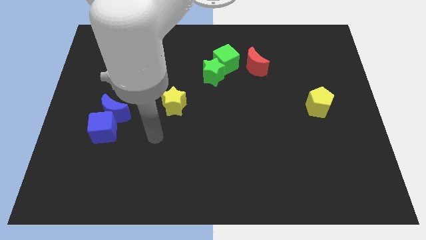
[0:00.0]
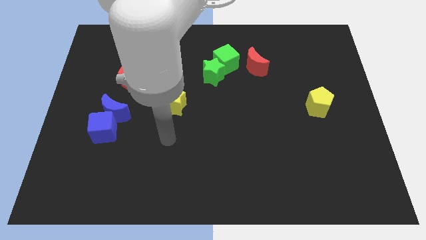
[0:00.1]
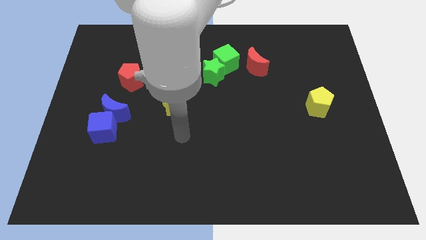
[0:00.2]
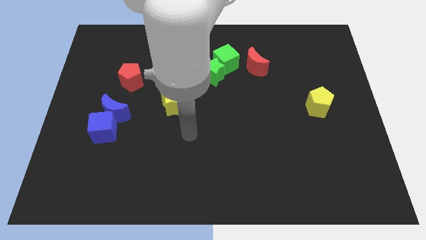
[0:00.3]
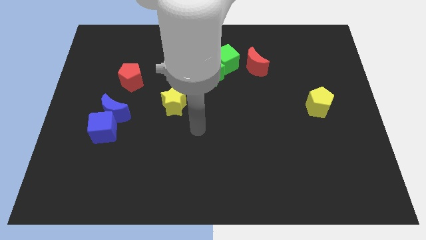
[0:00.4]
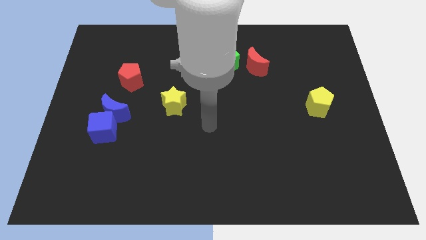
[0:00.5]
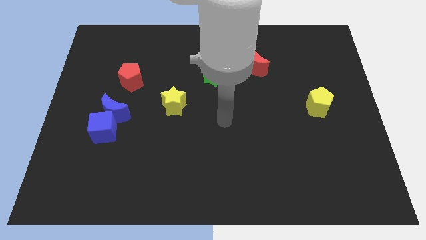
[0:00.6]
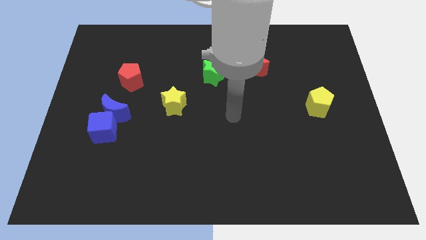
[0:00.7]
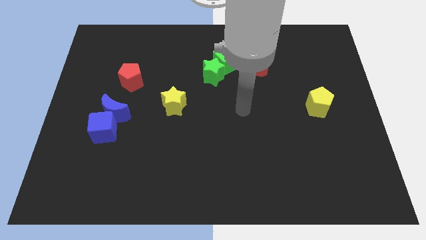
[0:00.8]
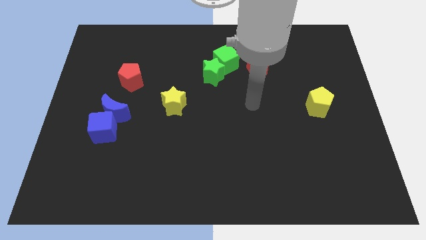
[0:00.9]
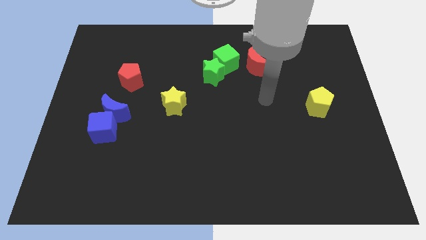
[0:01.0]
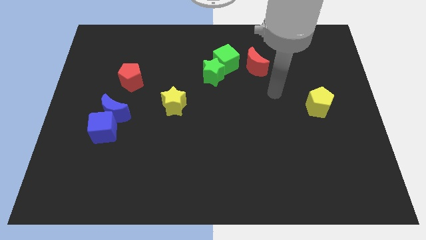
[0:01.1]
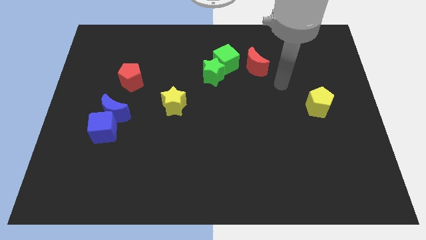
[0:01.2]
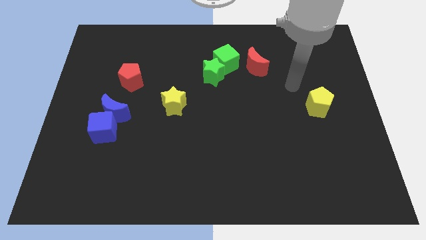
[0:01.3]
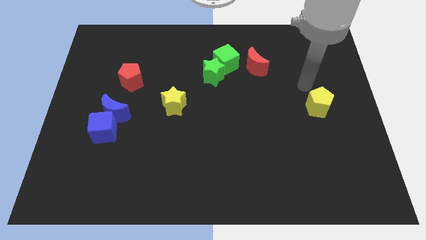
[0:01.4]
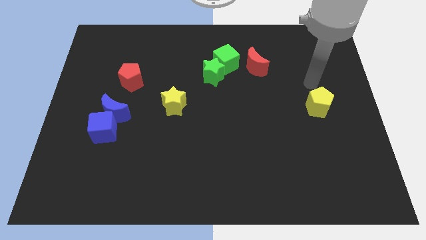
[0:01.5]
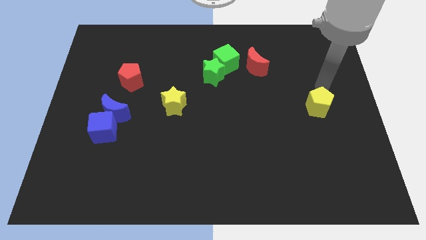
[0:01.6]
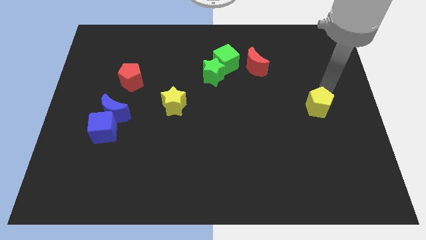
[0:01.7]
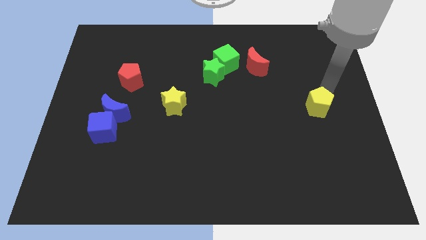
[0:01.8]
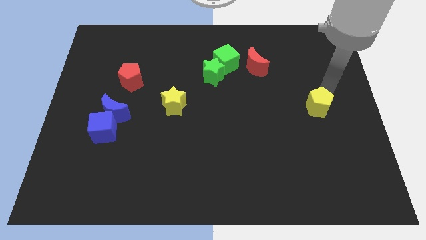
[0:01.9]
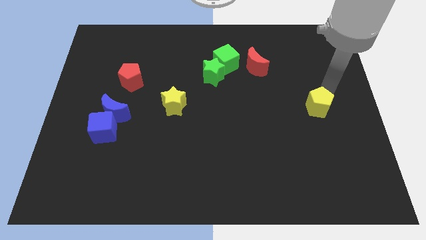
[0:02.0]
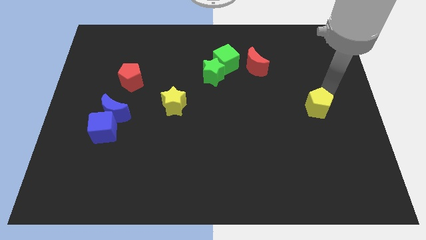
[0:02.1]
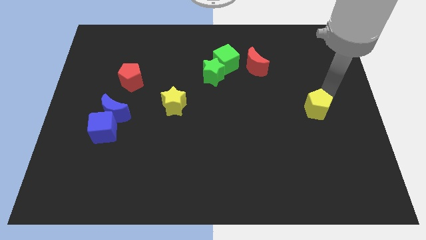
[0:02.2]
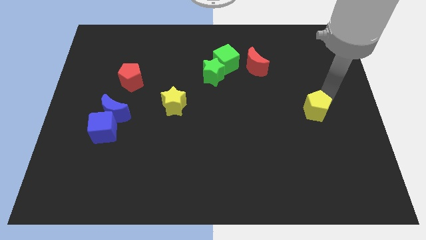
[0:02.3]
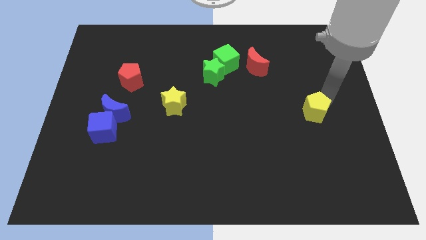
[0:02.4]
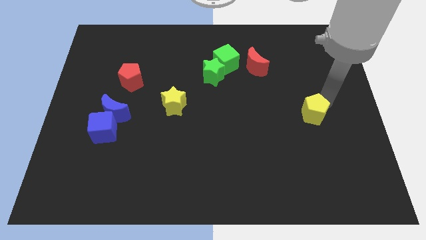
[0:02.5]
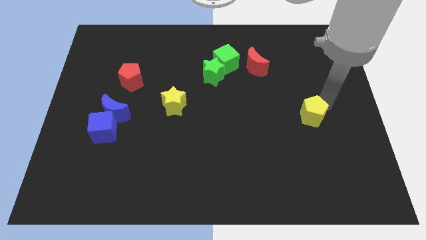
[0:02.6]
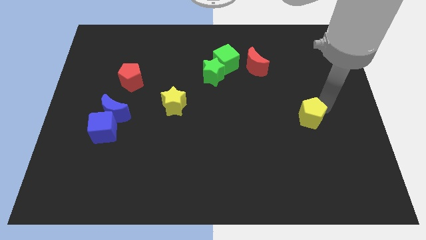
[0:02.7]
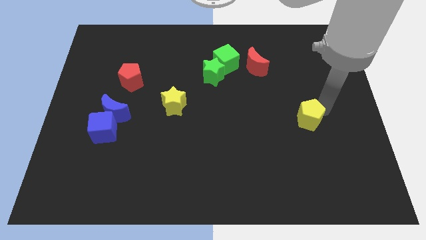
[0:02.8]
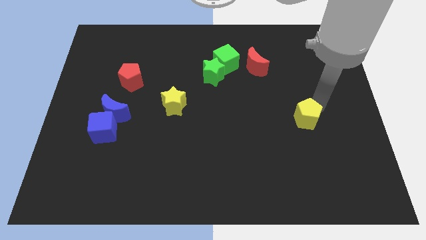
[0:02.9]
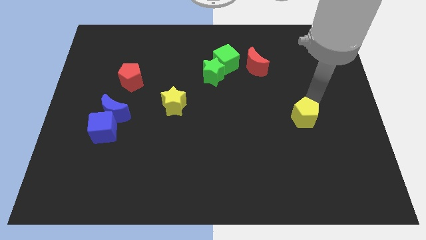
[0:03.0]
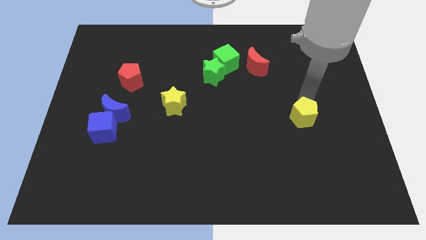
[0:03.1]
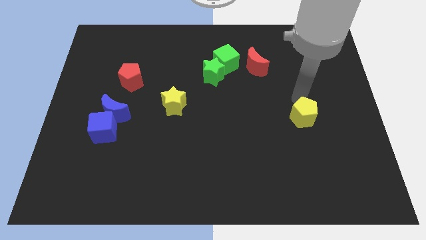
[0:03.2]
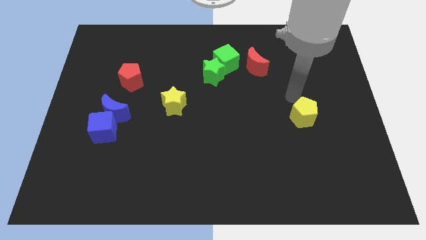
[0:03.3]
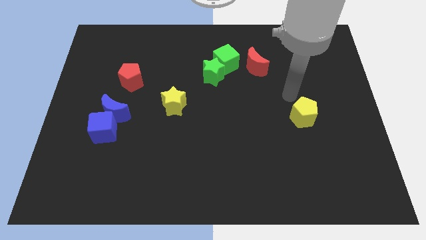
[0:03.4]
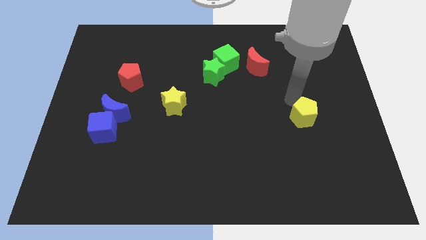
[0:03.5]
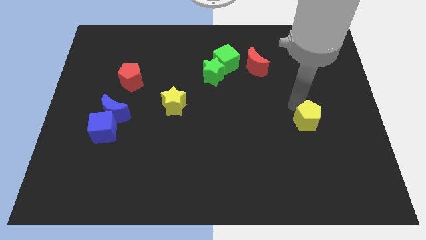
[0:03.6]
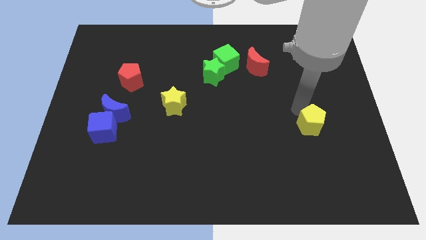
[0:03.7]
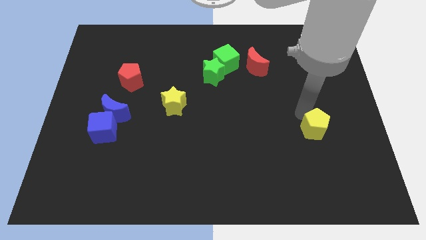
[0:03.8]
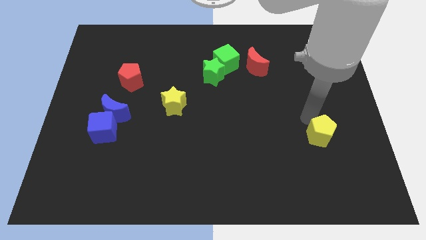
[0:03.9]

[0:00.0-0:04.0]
move the yellow pentagon down a bit

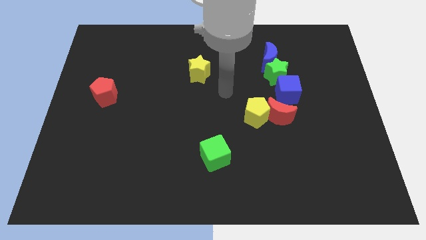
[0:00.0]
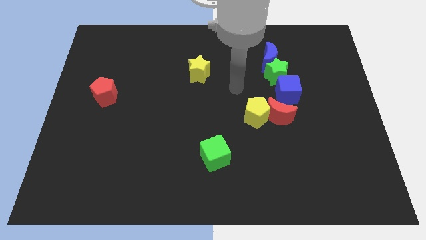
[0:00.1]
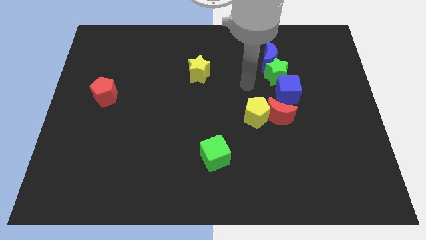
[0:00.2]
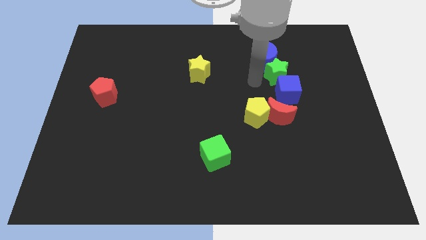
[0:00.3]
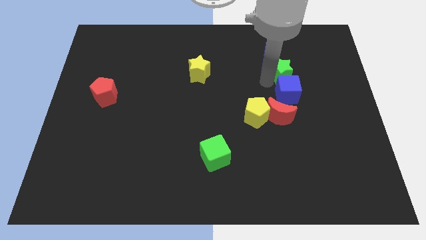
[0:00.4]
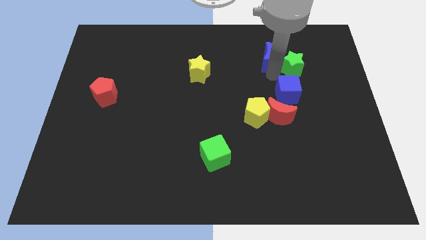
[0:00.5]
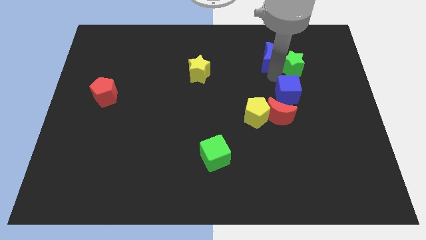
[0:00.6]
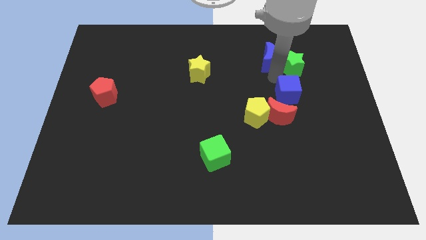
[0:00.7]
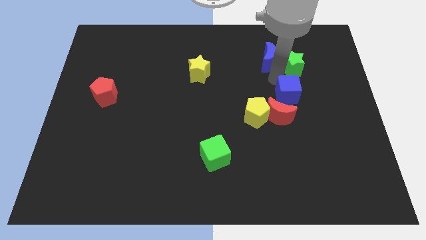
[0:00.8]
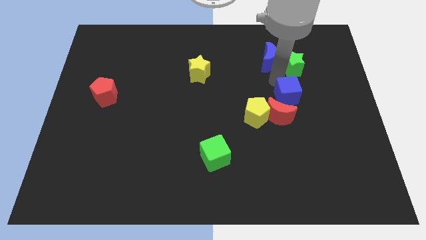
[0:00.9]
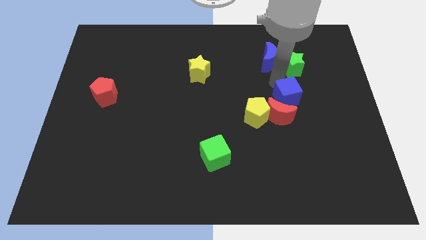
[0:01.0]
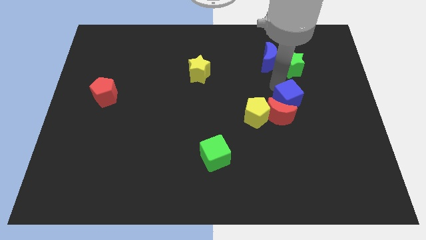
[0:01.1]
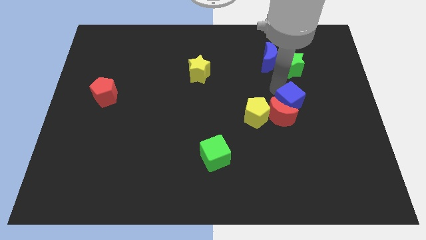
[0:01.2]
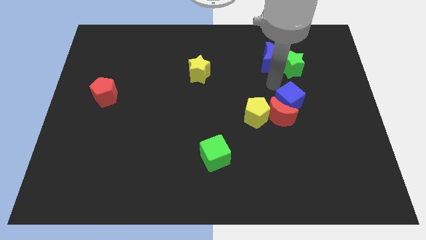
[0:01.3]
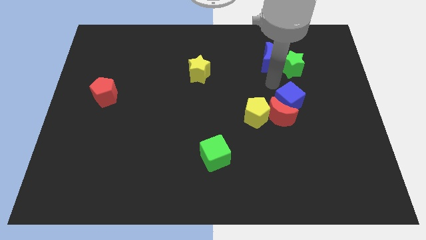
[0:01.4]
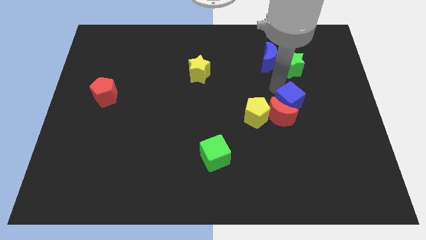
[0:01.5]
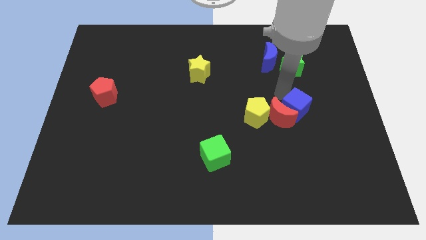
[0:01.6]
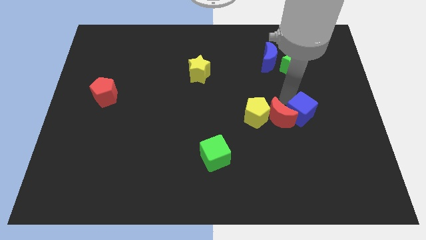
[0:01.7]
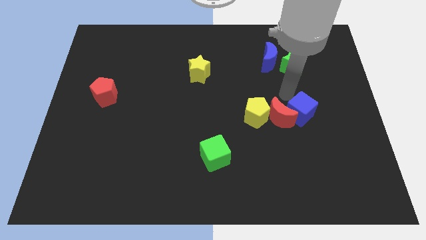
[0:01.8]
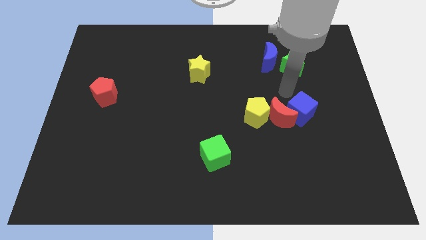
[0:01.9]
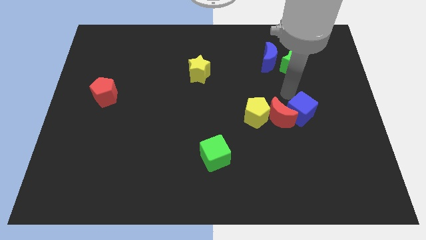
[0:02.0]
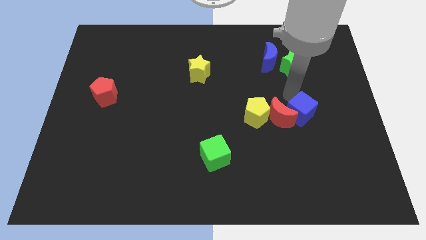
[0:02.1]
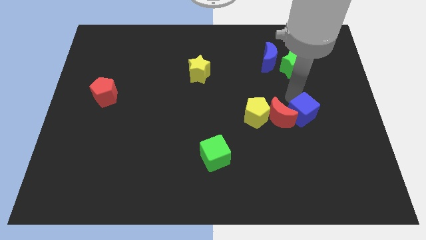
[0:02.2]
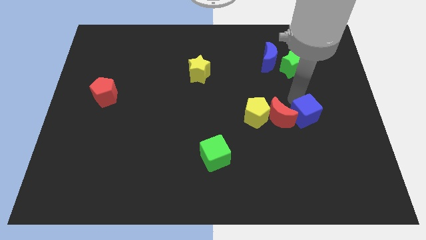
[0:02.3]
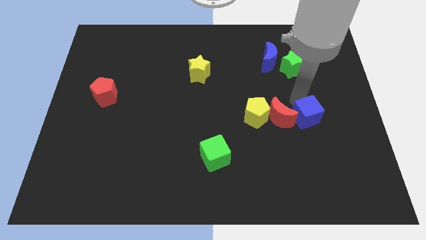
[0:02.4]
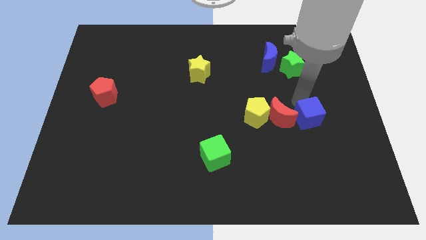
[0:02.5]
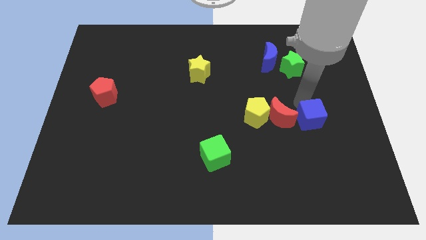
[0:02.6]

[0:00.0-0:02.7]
slightly push the blue cube downwards

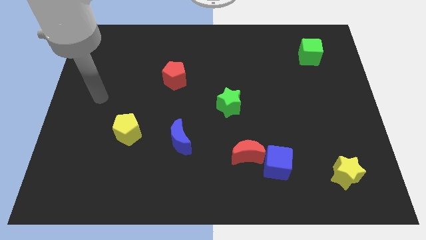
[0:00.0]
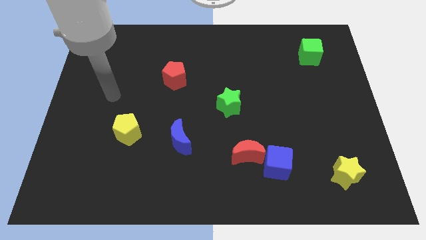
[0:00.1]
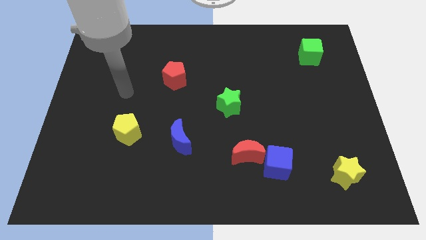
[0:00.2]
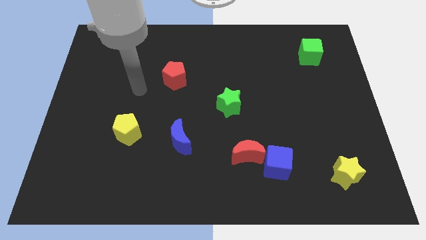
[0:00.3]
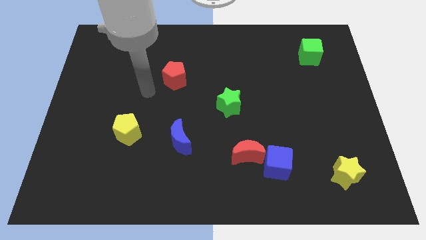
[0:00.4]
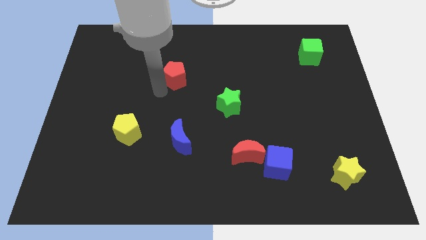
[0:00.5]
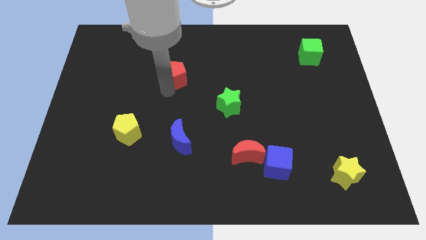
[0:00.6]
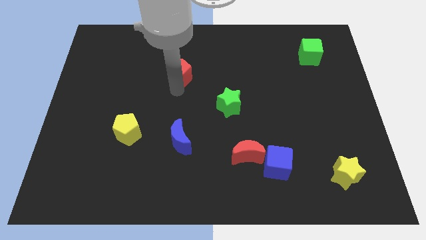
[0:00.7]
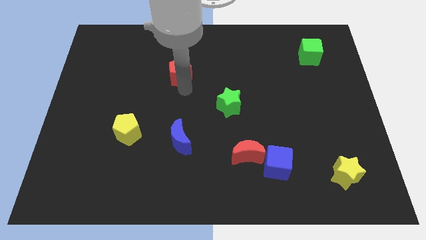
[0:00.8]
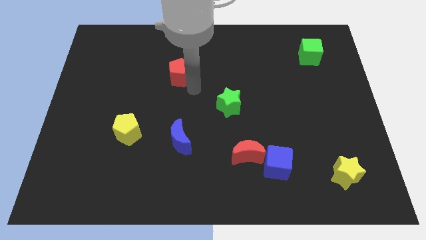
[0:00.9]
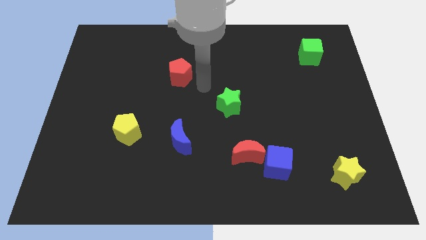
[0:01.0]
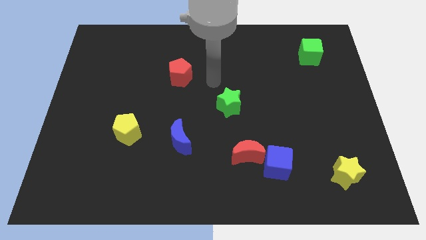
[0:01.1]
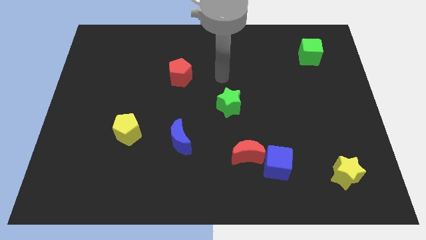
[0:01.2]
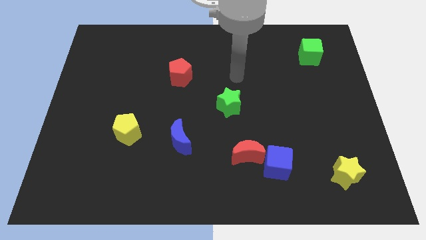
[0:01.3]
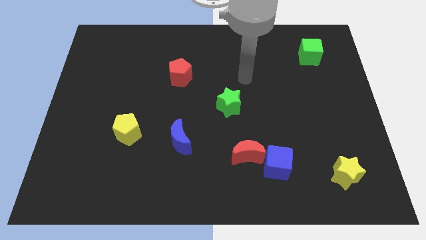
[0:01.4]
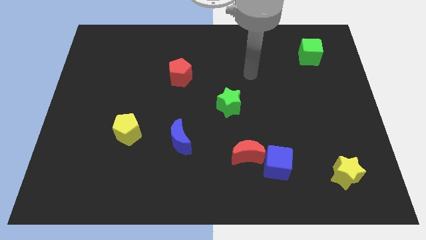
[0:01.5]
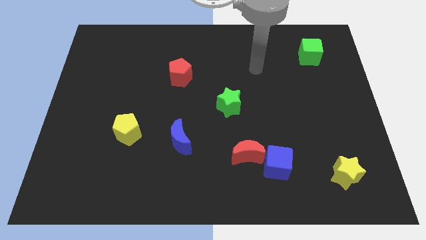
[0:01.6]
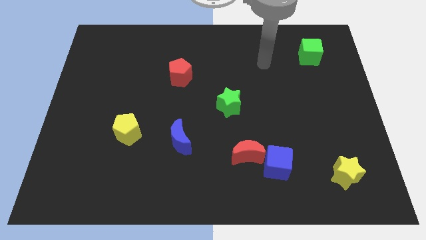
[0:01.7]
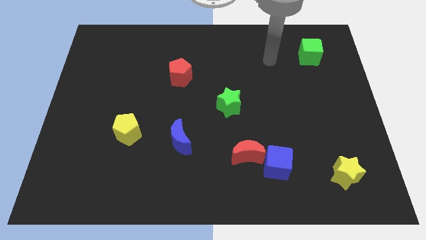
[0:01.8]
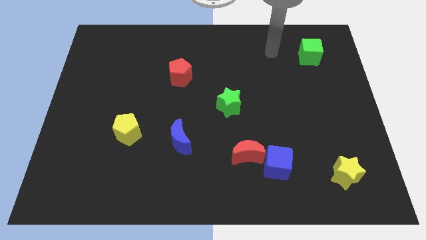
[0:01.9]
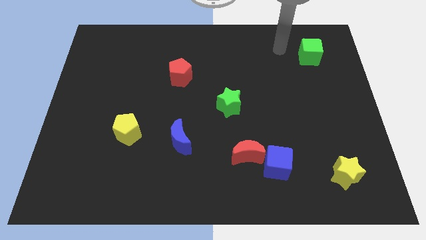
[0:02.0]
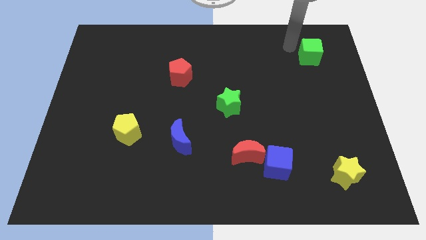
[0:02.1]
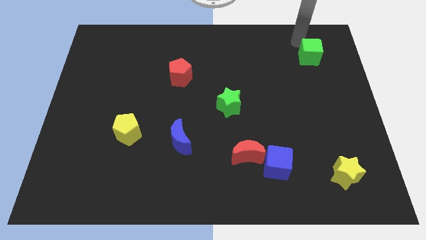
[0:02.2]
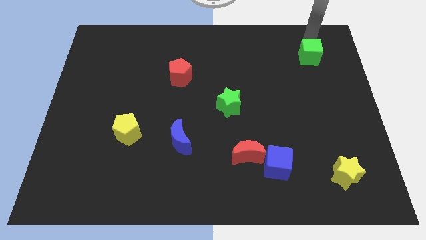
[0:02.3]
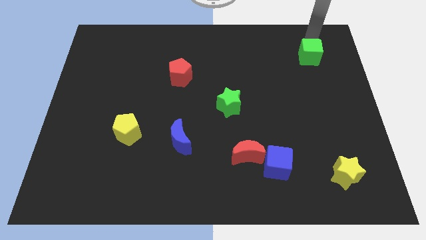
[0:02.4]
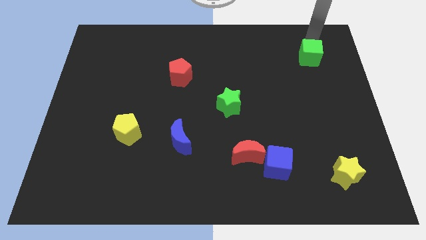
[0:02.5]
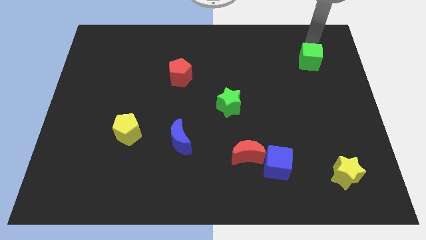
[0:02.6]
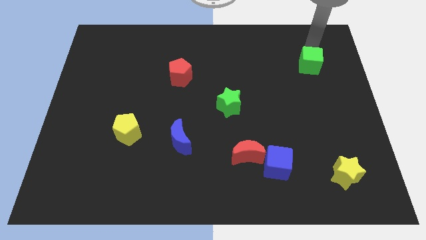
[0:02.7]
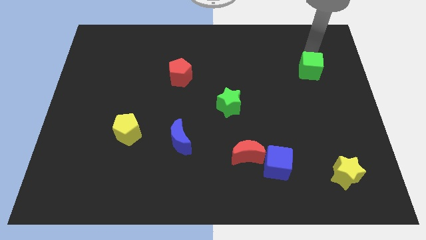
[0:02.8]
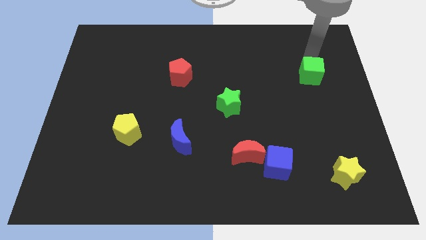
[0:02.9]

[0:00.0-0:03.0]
move the green cube downwards somewhat
